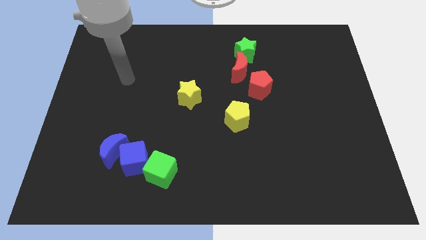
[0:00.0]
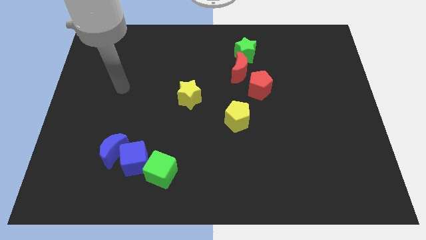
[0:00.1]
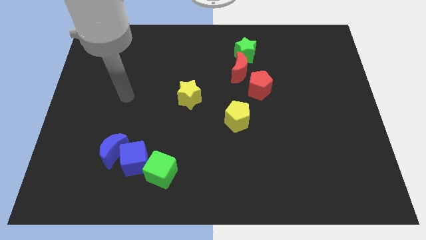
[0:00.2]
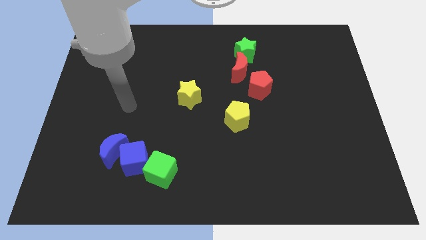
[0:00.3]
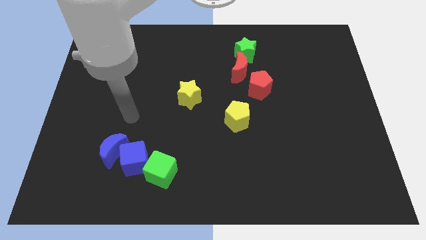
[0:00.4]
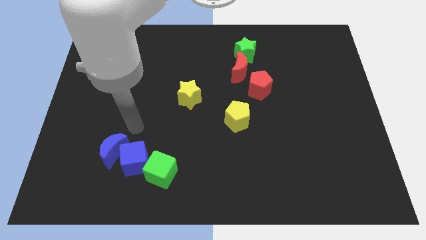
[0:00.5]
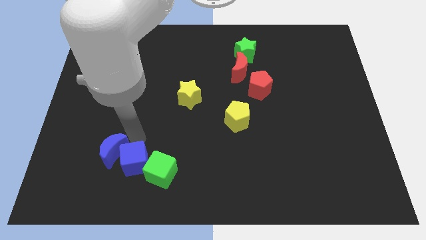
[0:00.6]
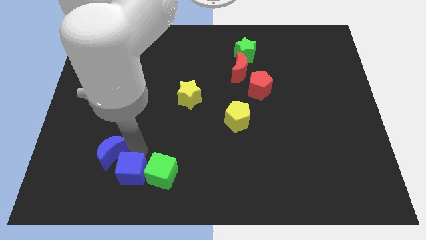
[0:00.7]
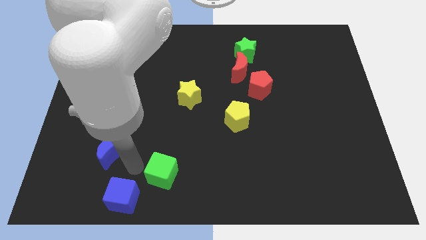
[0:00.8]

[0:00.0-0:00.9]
pull the blue moon apart from the blue cube

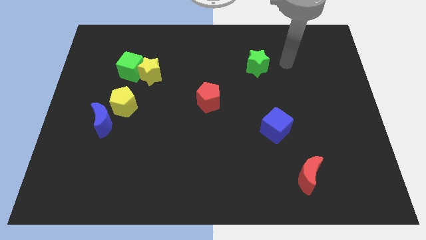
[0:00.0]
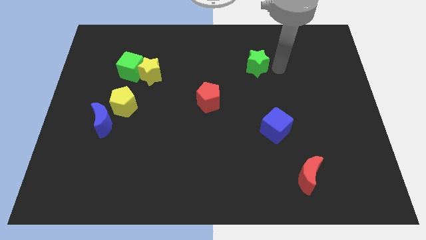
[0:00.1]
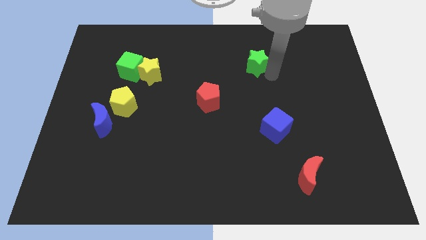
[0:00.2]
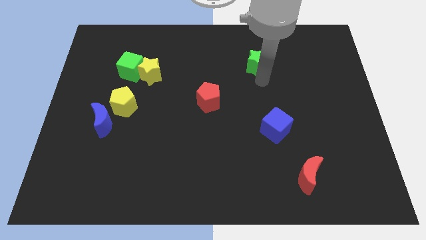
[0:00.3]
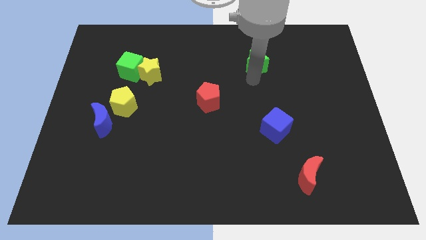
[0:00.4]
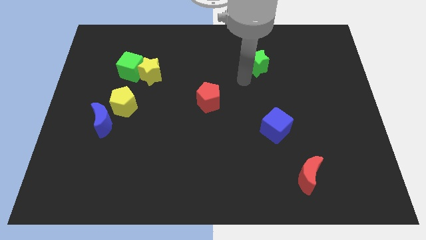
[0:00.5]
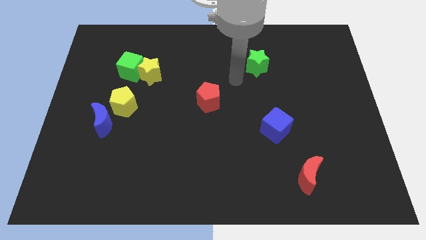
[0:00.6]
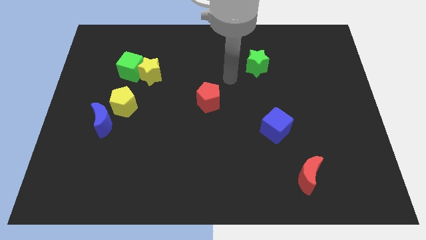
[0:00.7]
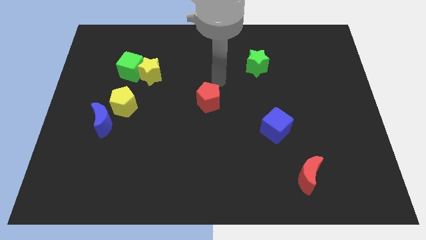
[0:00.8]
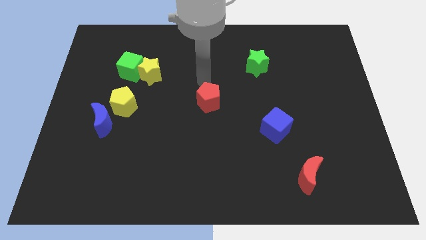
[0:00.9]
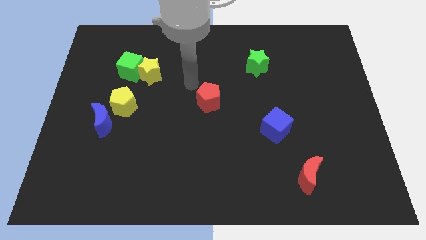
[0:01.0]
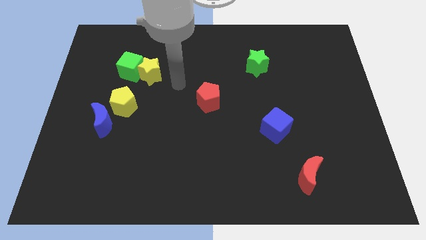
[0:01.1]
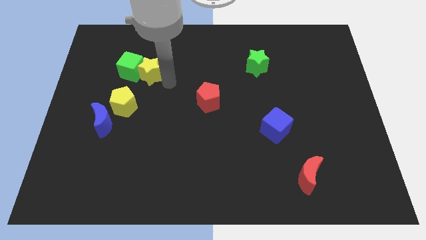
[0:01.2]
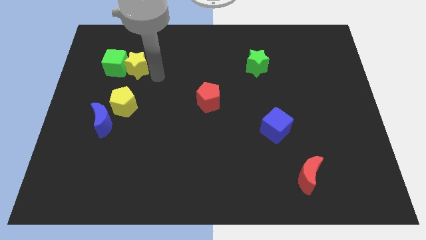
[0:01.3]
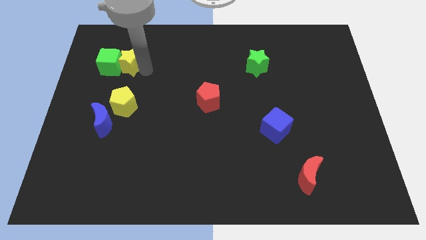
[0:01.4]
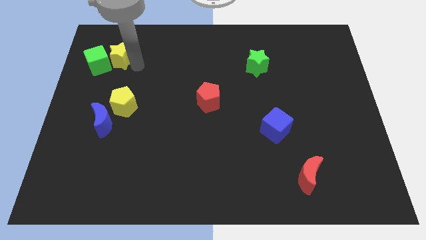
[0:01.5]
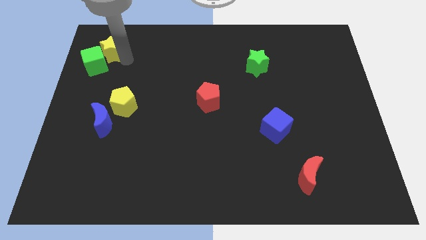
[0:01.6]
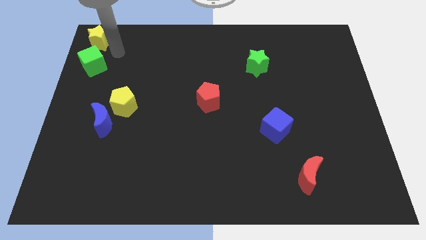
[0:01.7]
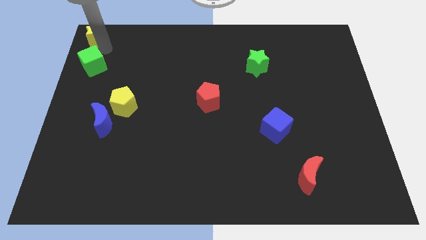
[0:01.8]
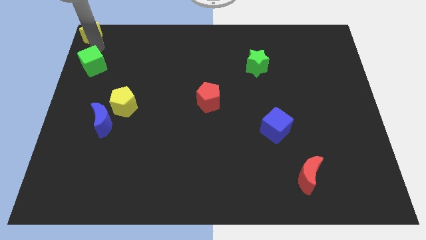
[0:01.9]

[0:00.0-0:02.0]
separate the green cube from the yellow star

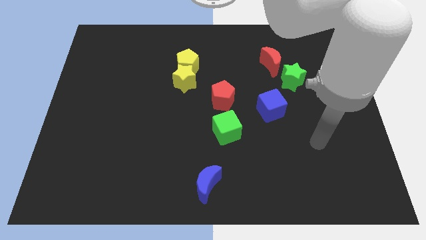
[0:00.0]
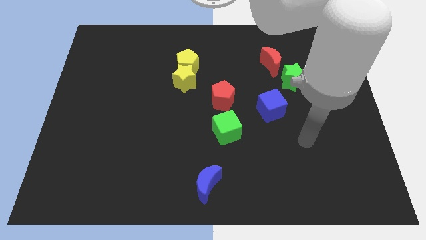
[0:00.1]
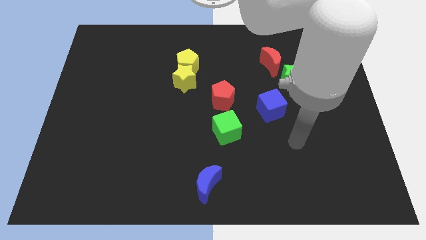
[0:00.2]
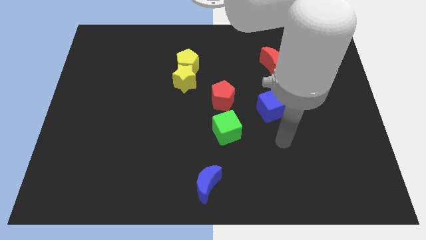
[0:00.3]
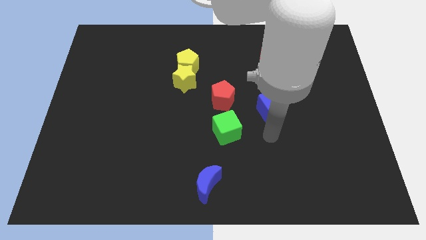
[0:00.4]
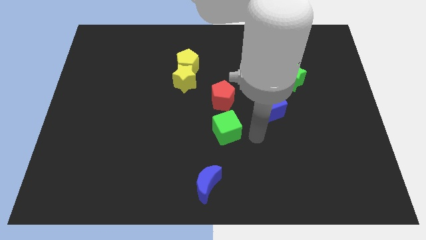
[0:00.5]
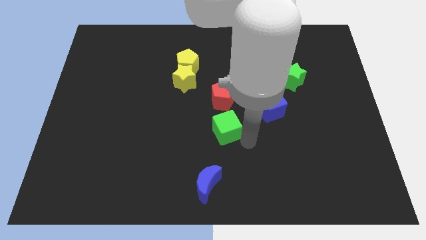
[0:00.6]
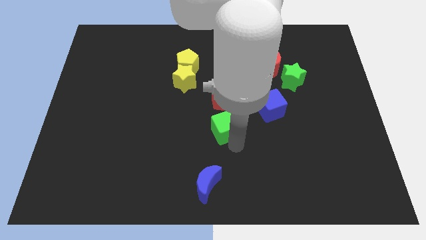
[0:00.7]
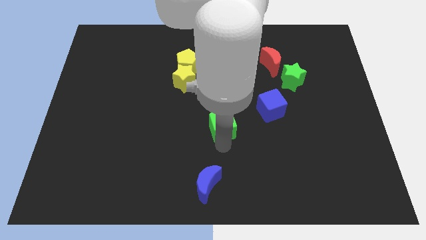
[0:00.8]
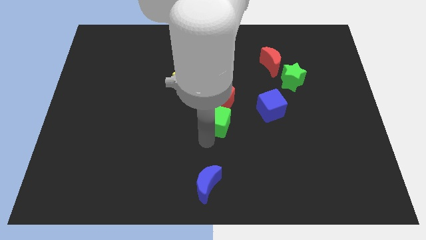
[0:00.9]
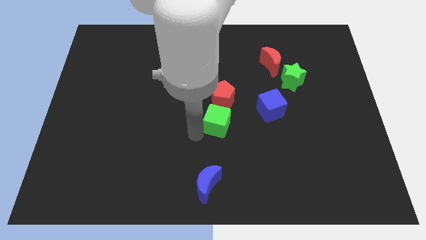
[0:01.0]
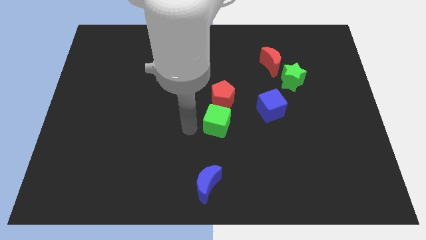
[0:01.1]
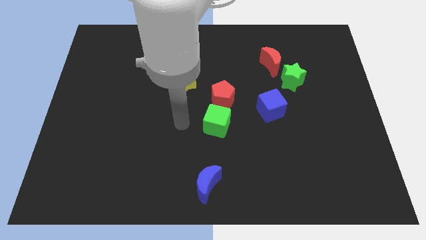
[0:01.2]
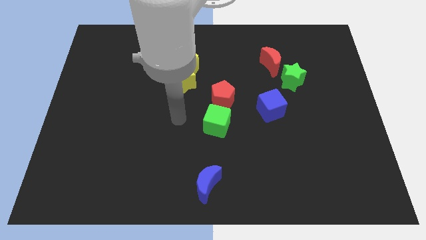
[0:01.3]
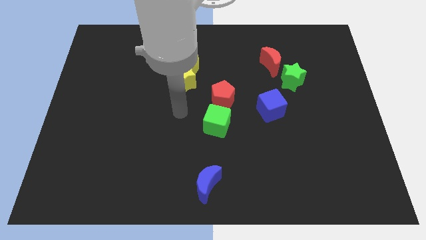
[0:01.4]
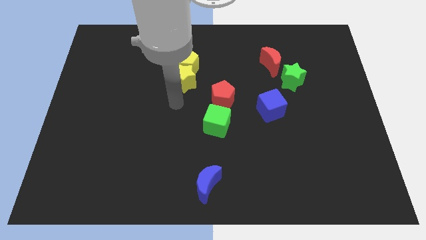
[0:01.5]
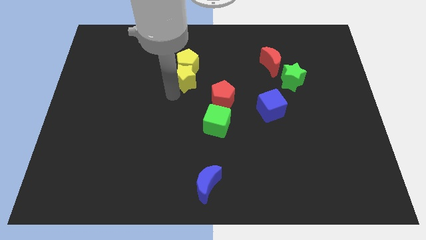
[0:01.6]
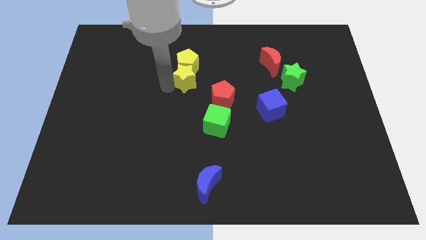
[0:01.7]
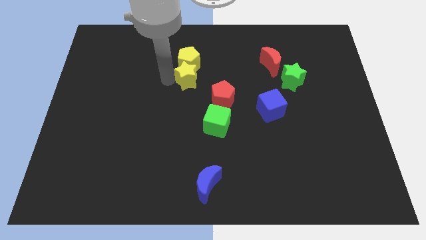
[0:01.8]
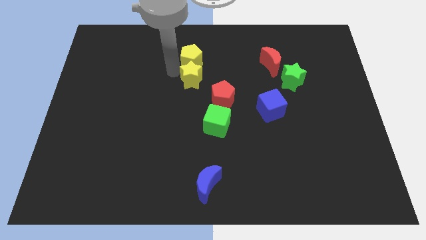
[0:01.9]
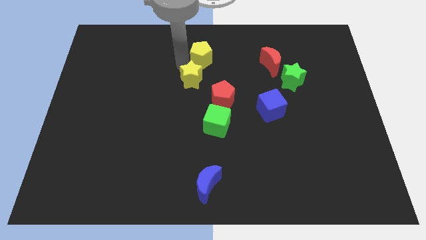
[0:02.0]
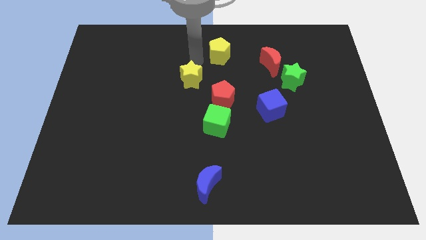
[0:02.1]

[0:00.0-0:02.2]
move the yellow star away from the yellow pentagon

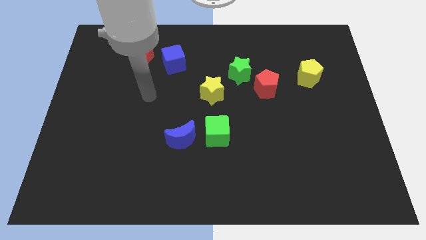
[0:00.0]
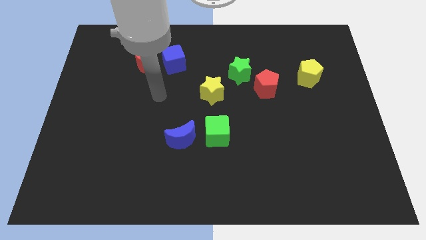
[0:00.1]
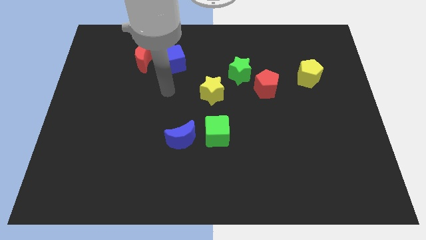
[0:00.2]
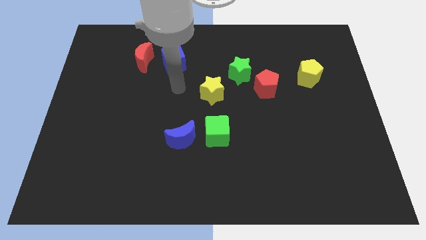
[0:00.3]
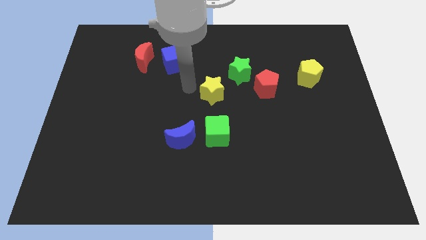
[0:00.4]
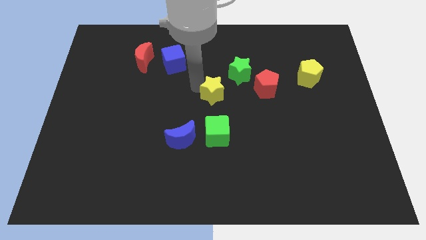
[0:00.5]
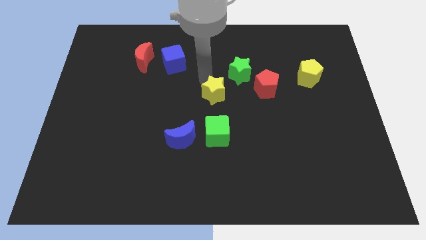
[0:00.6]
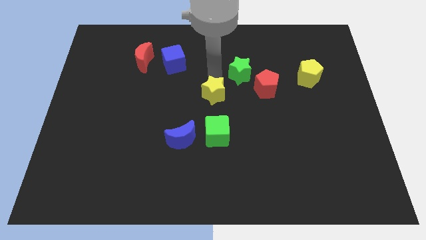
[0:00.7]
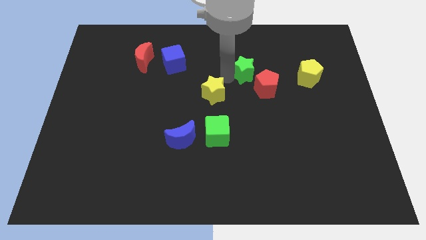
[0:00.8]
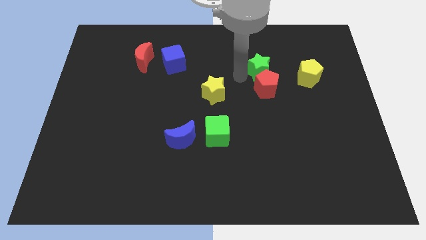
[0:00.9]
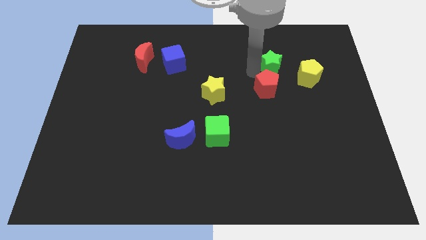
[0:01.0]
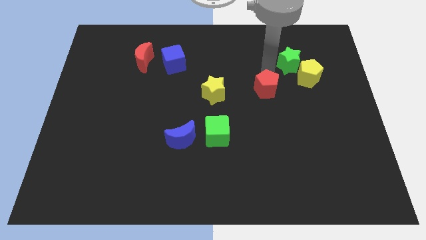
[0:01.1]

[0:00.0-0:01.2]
pull the red pentagon apart from the green star

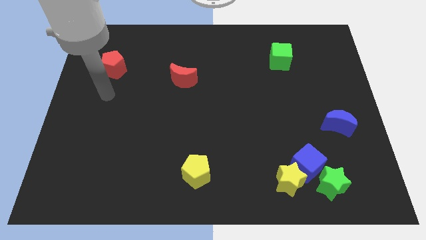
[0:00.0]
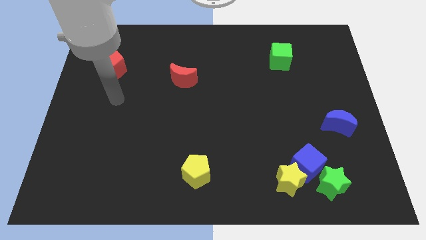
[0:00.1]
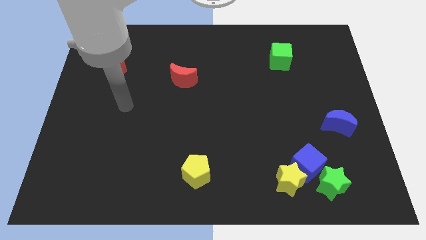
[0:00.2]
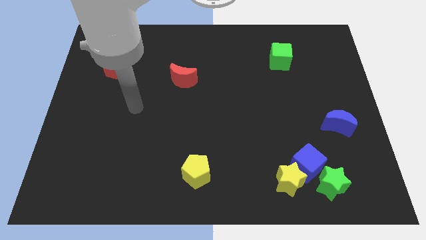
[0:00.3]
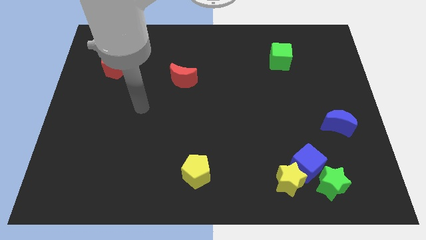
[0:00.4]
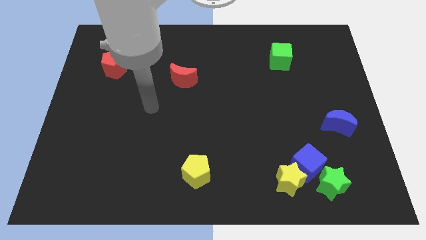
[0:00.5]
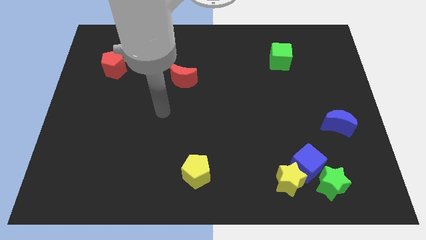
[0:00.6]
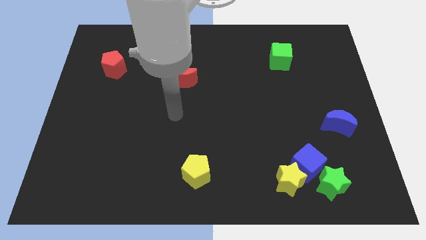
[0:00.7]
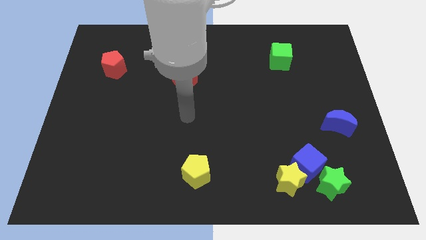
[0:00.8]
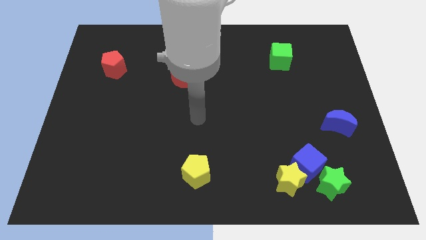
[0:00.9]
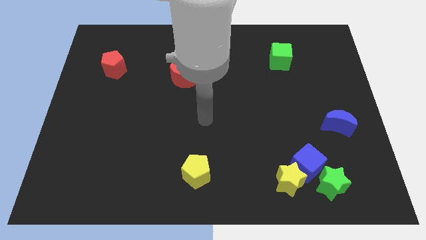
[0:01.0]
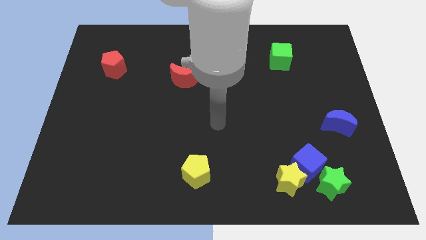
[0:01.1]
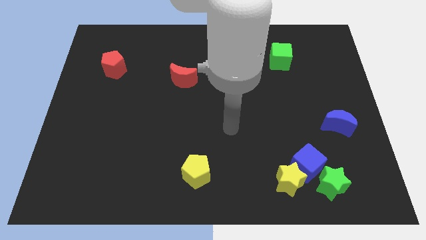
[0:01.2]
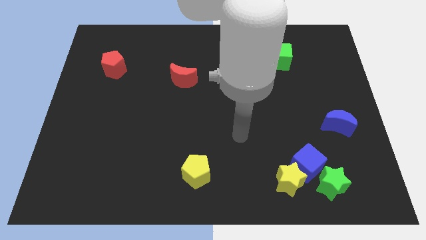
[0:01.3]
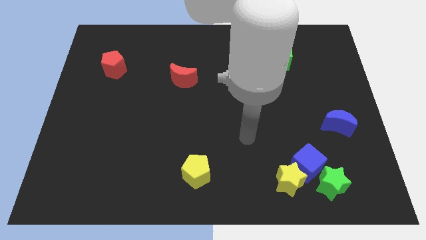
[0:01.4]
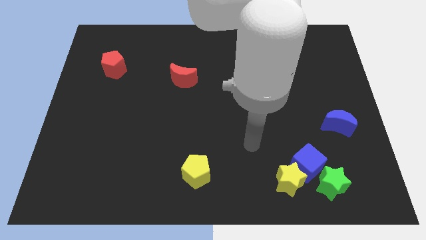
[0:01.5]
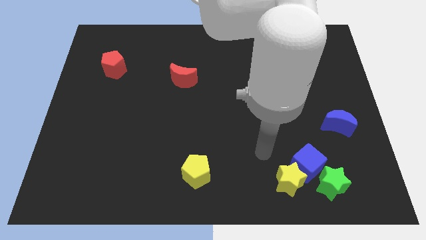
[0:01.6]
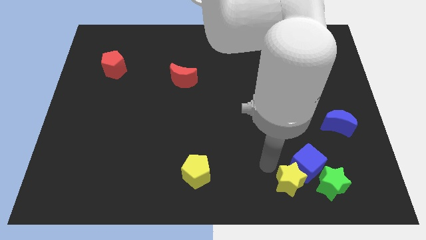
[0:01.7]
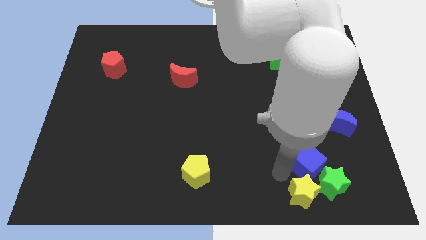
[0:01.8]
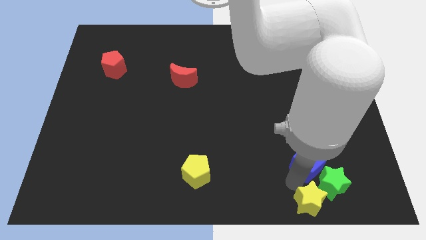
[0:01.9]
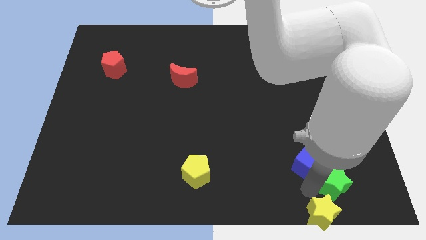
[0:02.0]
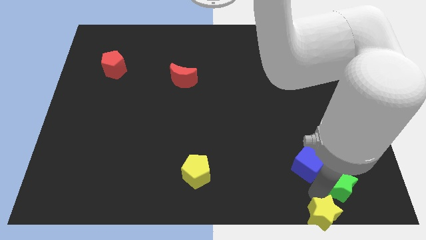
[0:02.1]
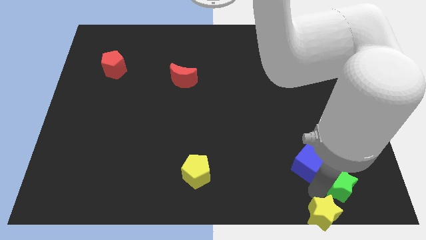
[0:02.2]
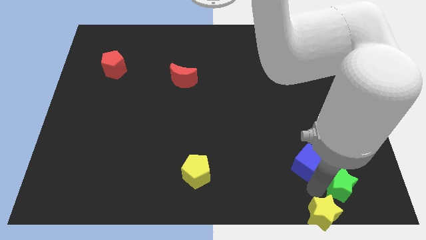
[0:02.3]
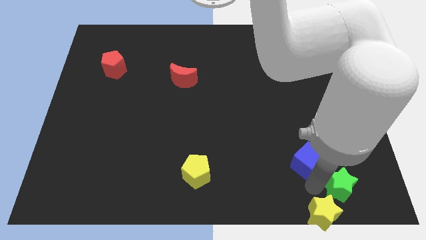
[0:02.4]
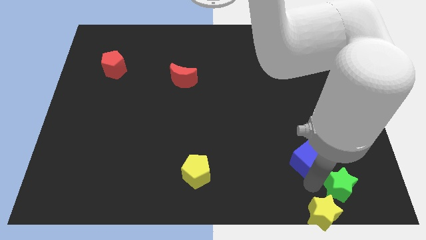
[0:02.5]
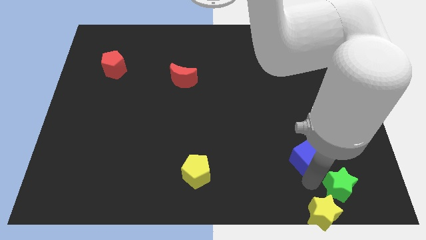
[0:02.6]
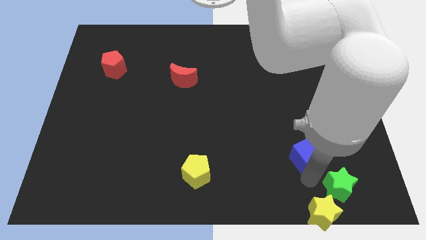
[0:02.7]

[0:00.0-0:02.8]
separate the blue cube from the yellow star and green star

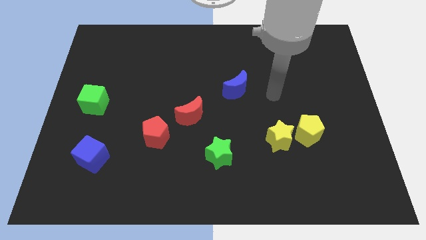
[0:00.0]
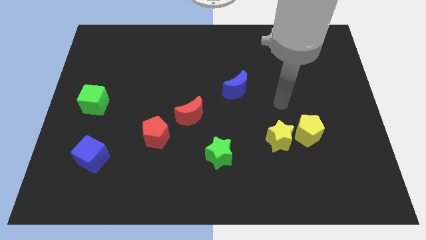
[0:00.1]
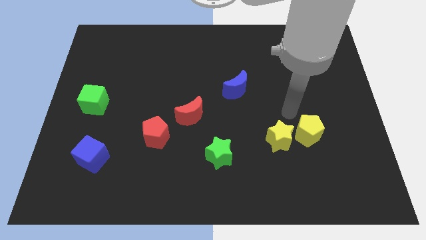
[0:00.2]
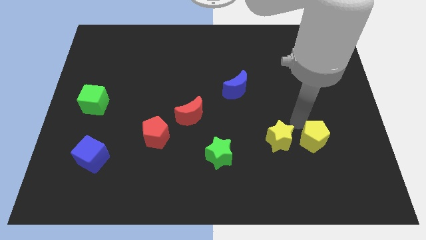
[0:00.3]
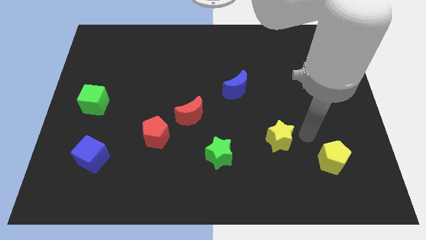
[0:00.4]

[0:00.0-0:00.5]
pull the yellow star apart from the yellow pentagon
